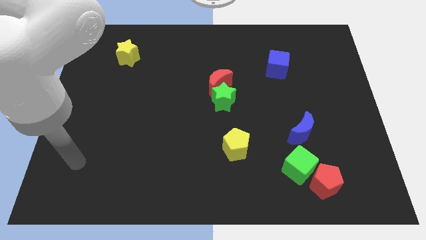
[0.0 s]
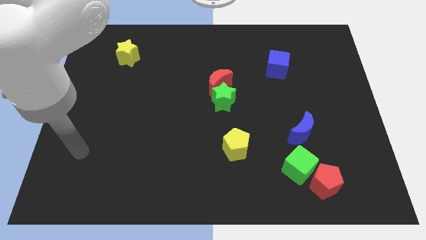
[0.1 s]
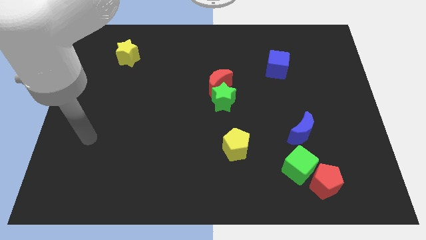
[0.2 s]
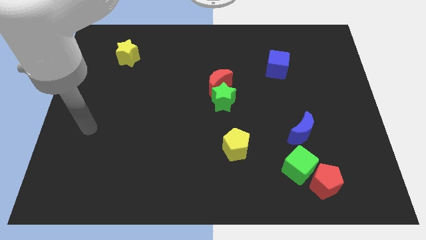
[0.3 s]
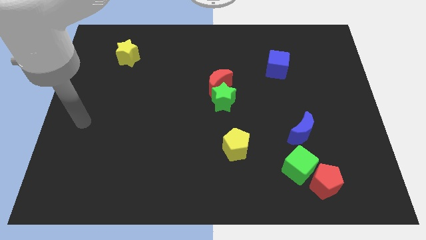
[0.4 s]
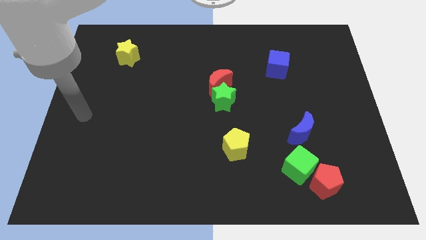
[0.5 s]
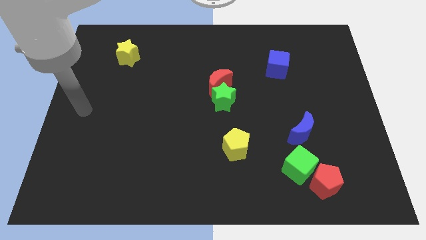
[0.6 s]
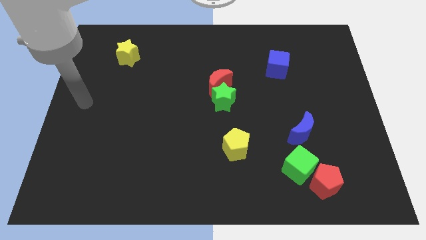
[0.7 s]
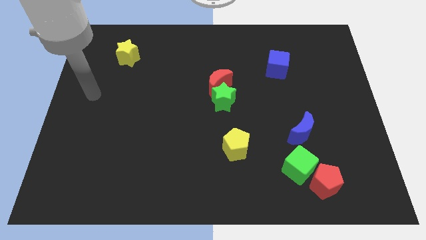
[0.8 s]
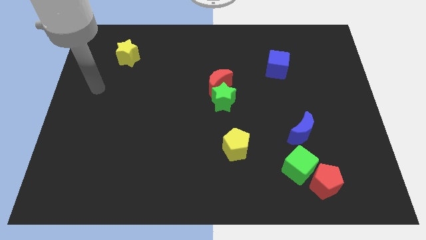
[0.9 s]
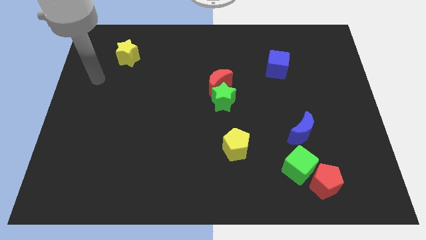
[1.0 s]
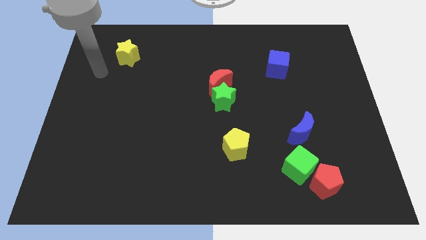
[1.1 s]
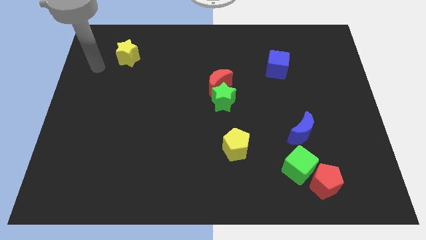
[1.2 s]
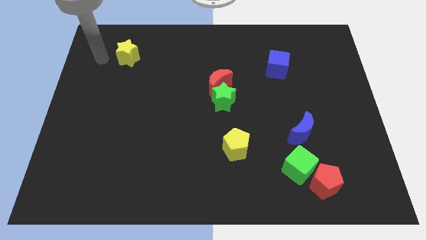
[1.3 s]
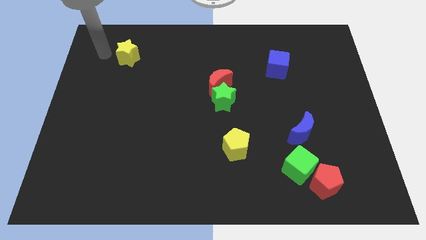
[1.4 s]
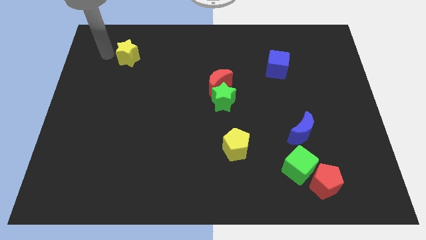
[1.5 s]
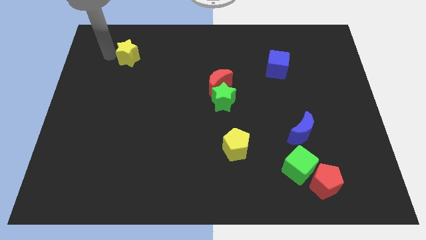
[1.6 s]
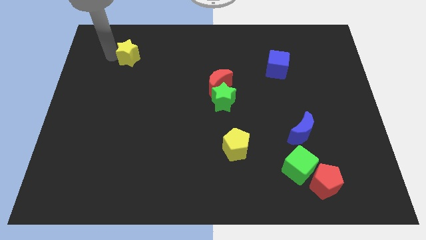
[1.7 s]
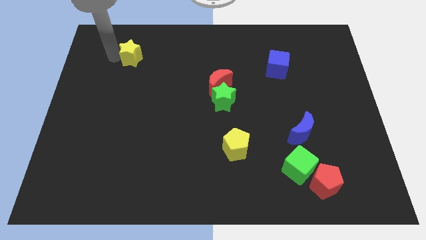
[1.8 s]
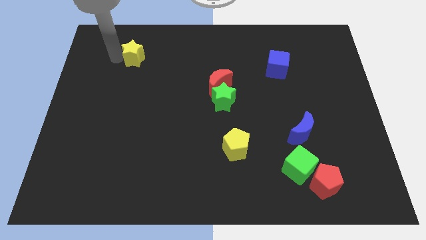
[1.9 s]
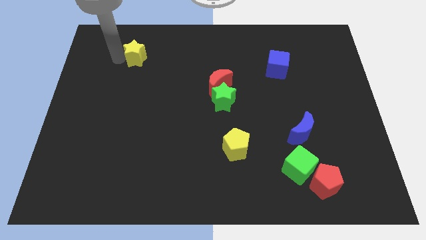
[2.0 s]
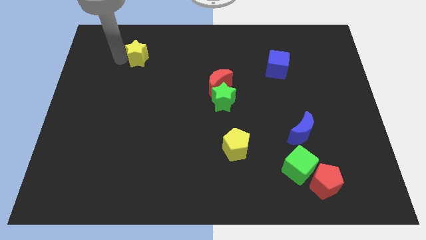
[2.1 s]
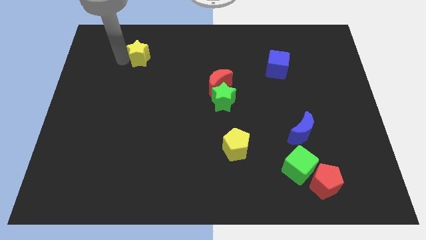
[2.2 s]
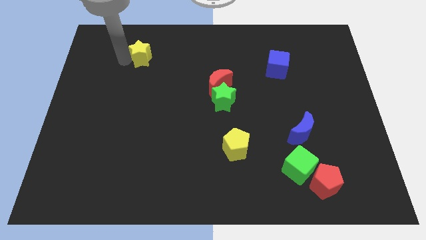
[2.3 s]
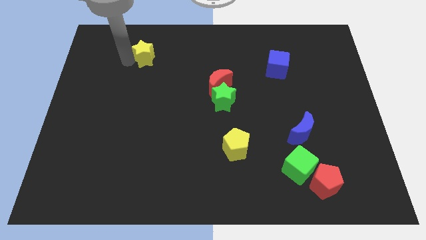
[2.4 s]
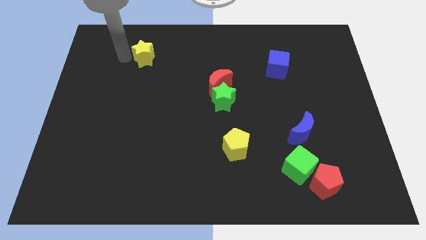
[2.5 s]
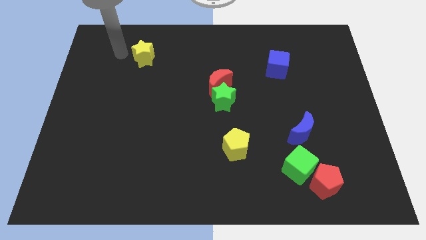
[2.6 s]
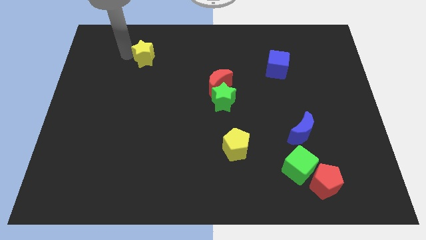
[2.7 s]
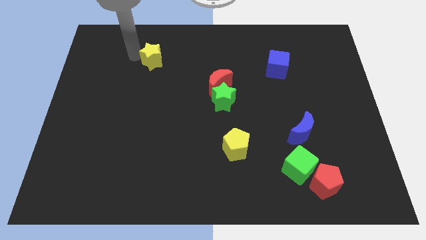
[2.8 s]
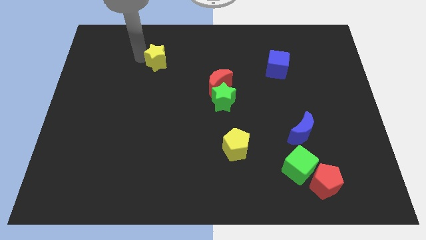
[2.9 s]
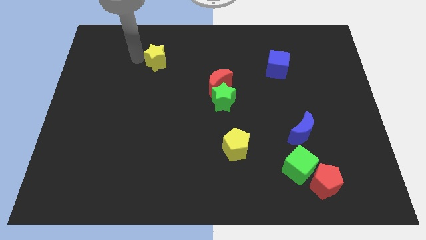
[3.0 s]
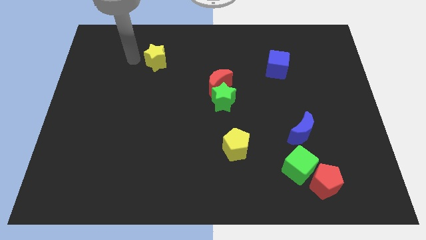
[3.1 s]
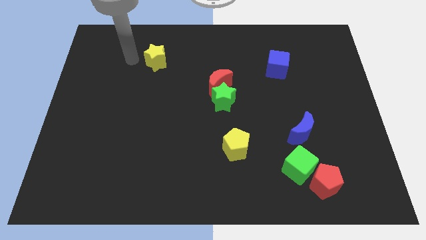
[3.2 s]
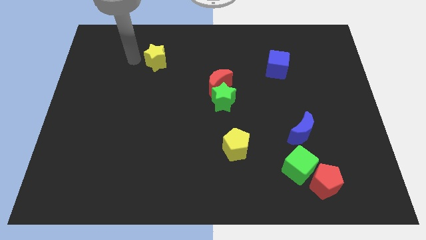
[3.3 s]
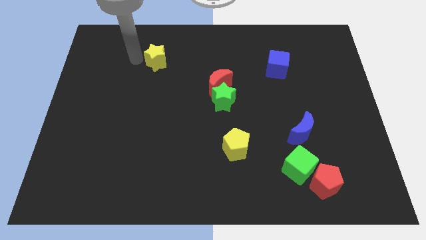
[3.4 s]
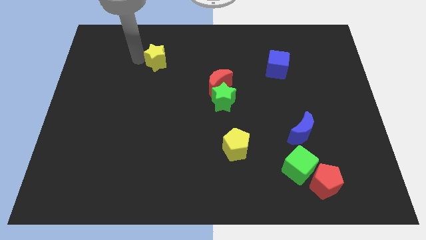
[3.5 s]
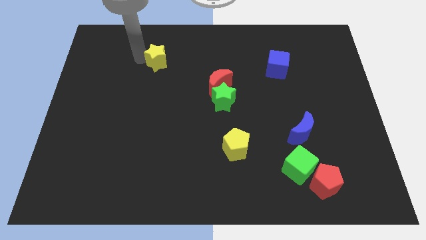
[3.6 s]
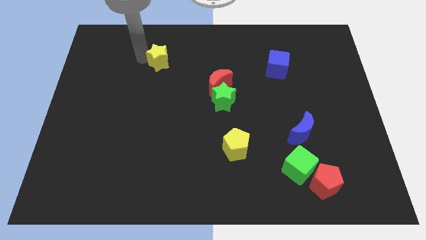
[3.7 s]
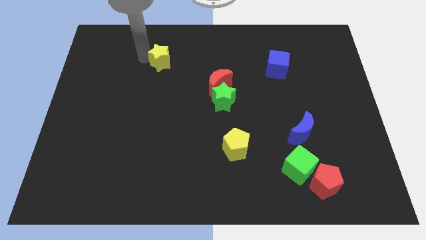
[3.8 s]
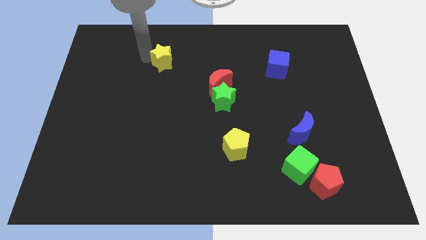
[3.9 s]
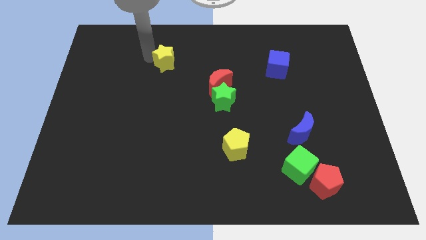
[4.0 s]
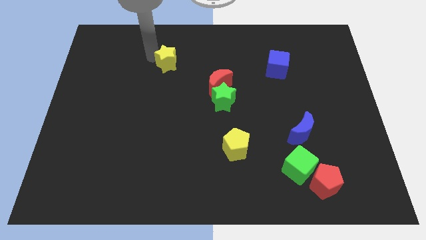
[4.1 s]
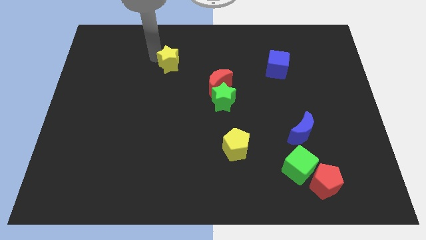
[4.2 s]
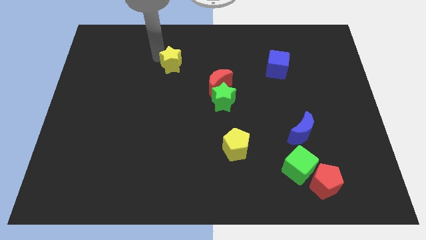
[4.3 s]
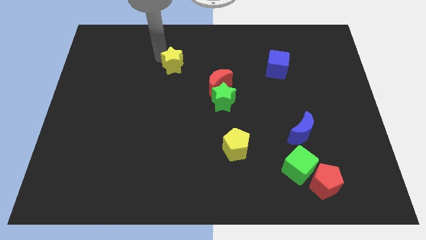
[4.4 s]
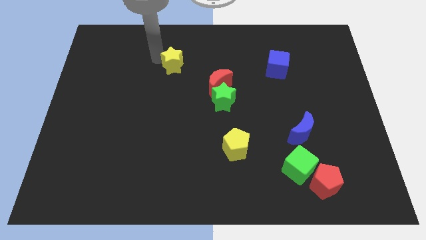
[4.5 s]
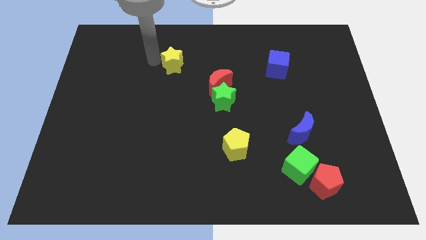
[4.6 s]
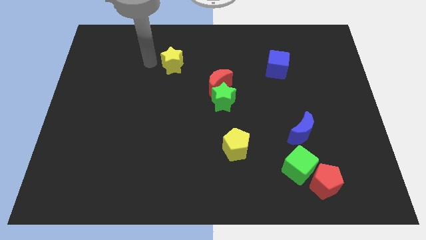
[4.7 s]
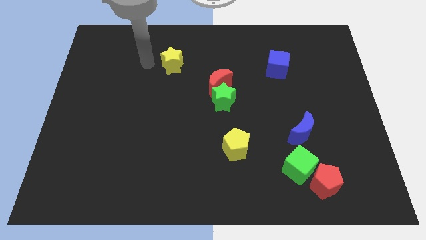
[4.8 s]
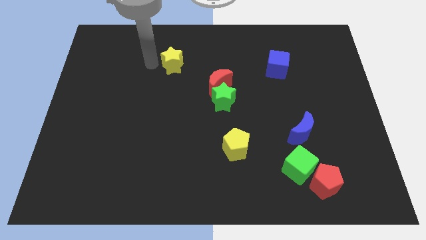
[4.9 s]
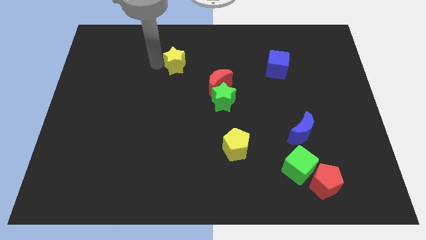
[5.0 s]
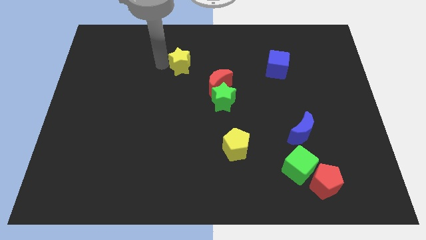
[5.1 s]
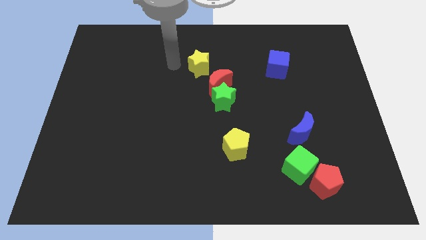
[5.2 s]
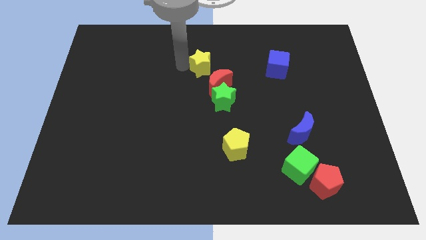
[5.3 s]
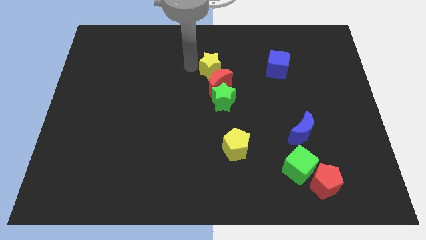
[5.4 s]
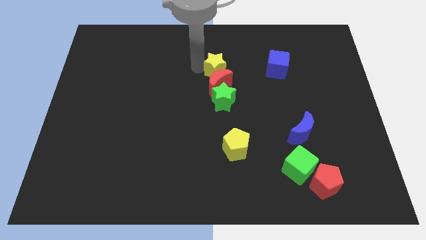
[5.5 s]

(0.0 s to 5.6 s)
put the yellow star left of the blue cube

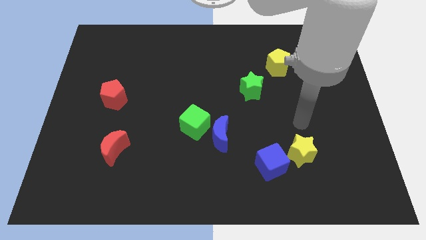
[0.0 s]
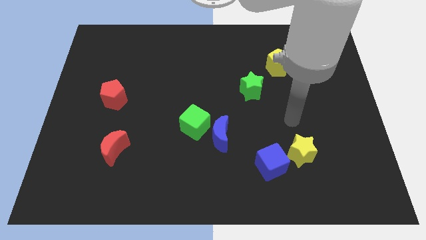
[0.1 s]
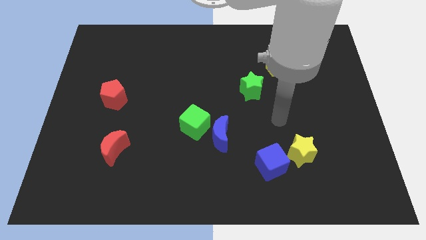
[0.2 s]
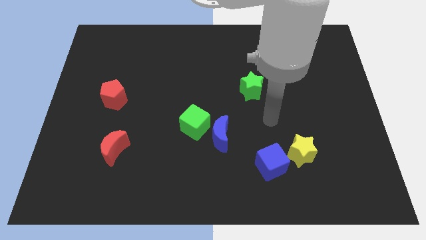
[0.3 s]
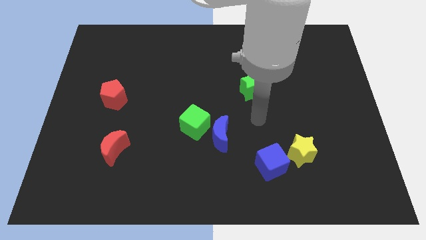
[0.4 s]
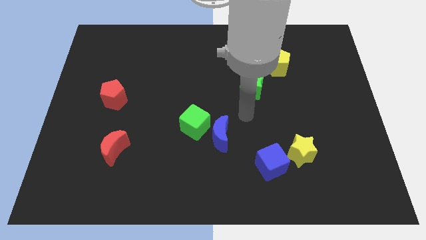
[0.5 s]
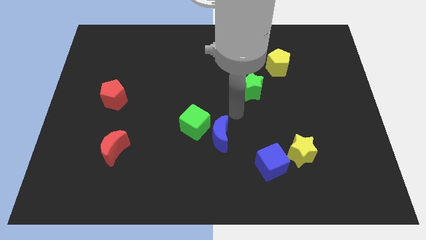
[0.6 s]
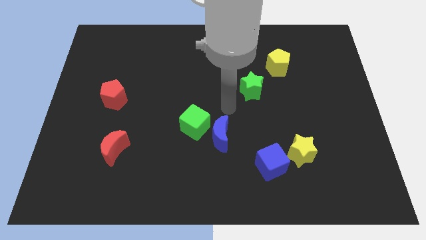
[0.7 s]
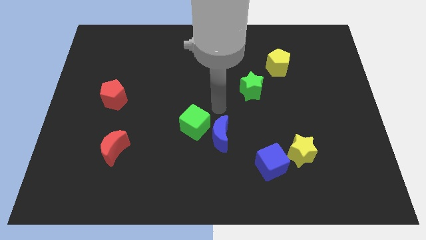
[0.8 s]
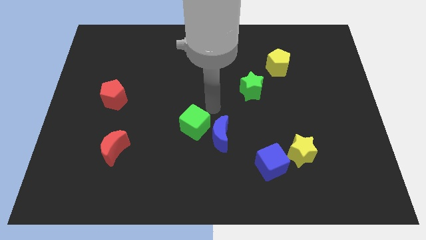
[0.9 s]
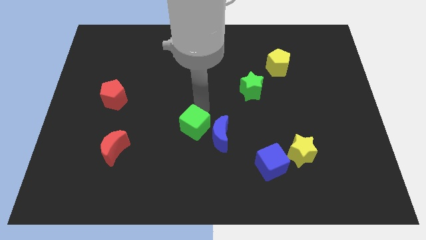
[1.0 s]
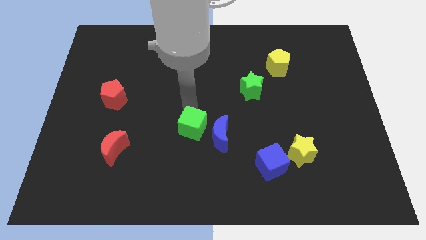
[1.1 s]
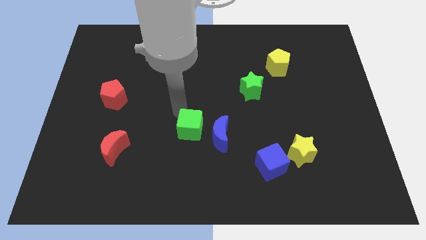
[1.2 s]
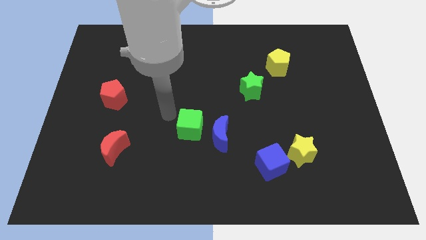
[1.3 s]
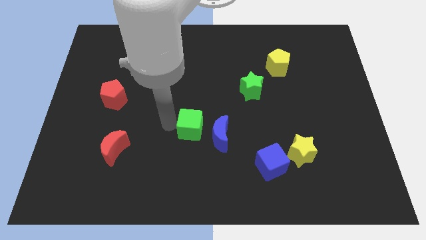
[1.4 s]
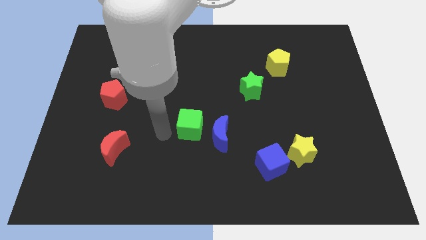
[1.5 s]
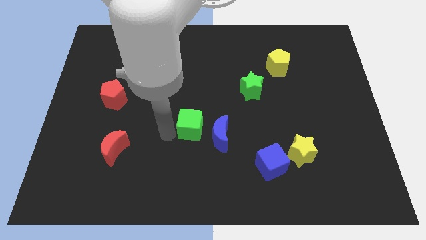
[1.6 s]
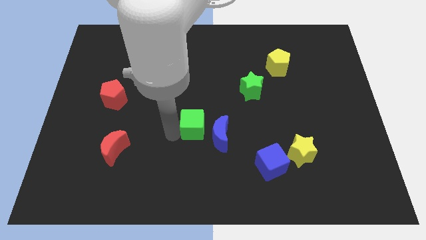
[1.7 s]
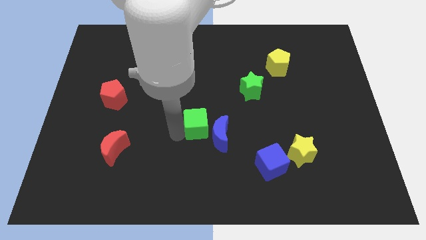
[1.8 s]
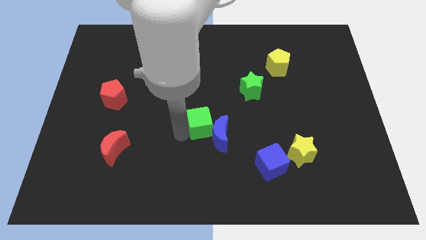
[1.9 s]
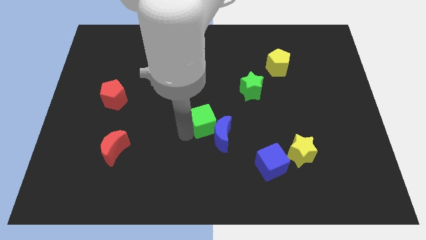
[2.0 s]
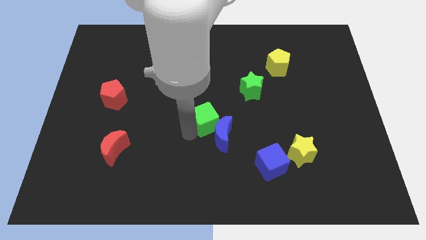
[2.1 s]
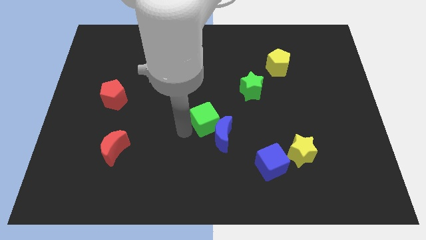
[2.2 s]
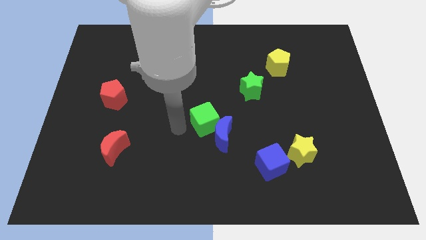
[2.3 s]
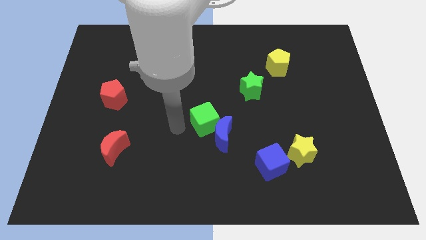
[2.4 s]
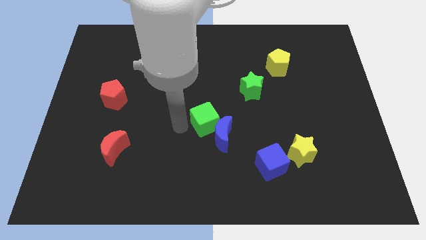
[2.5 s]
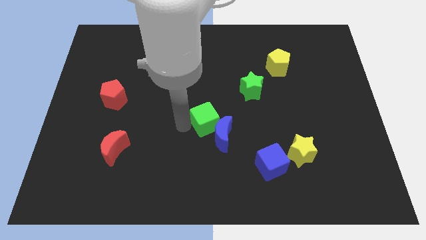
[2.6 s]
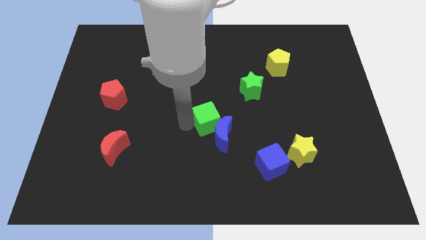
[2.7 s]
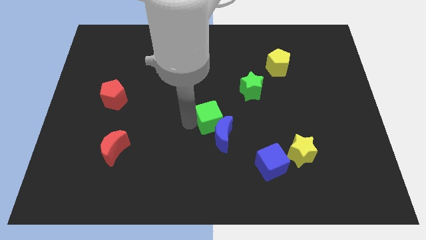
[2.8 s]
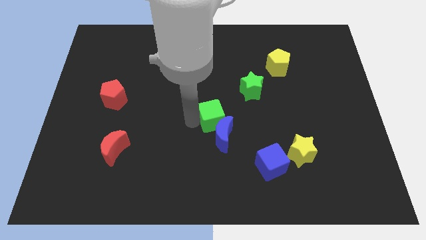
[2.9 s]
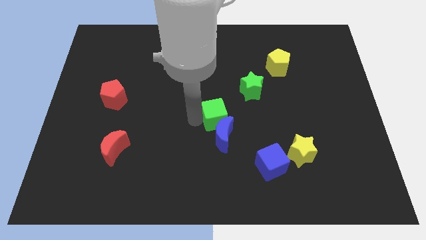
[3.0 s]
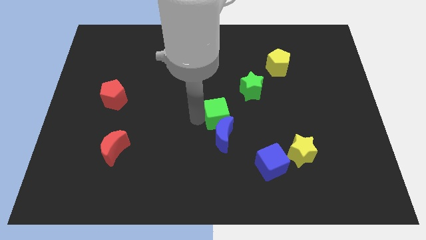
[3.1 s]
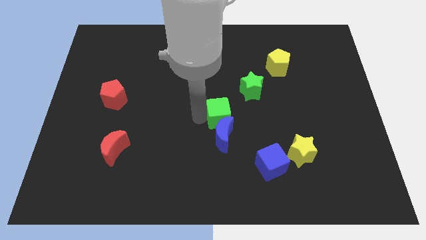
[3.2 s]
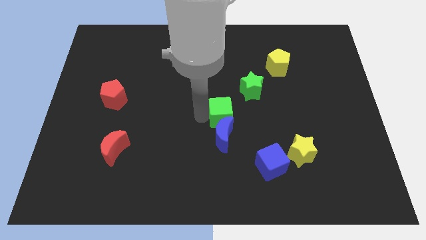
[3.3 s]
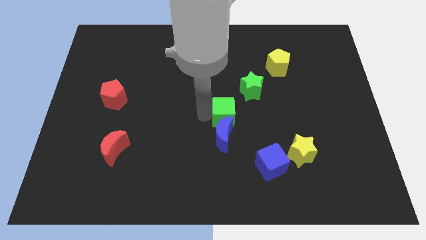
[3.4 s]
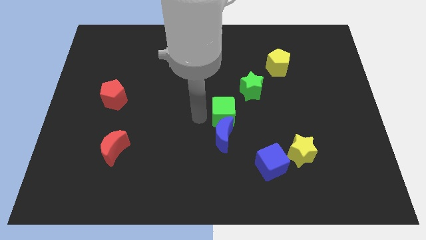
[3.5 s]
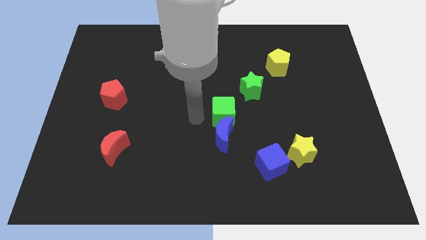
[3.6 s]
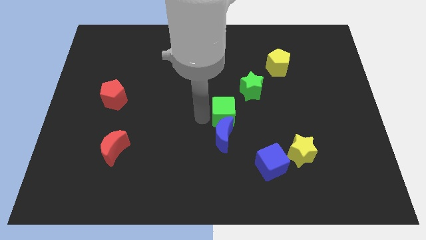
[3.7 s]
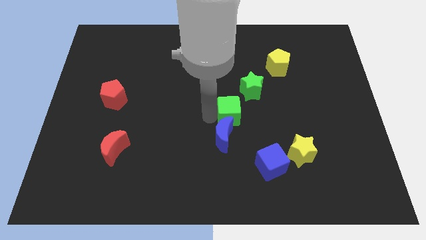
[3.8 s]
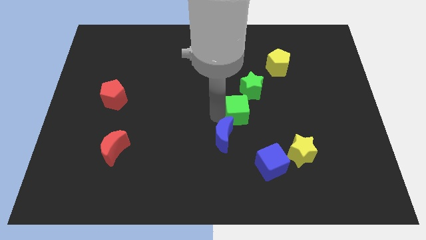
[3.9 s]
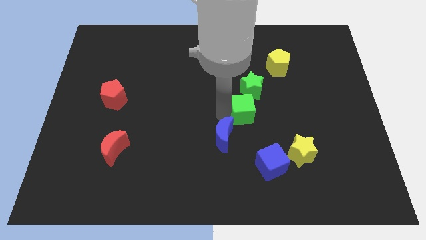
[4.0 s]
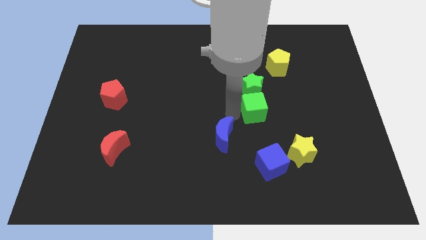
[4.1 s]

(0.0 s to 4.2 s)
move the green cube to the bottom right of the green star
